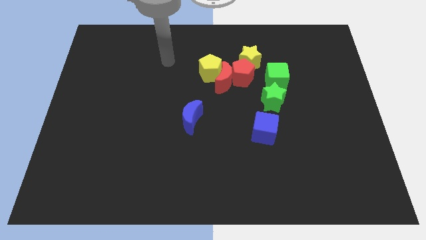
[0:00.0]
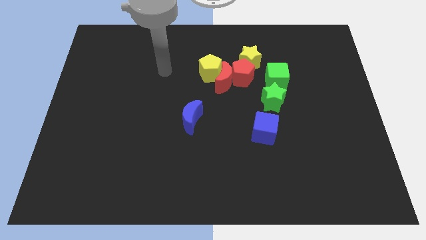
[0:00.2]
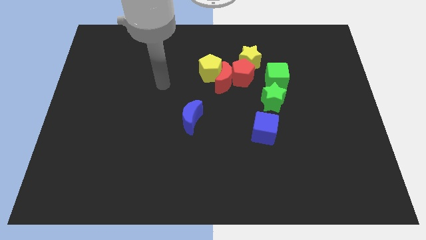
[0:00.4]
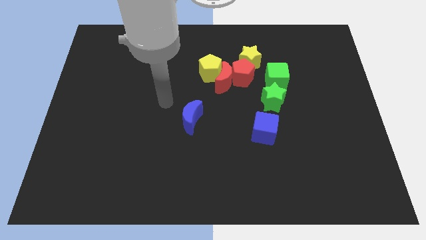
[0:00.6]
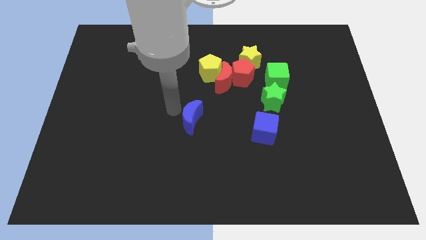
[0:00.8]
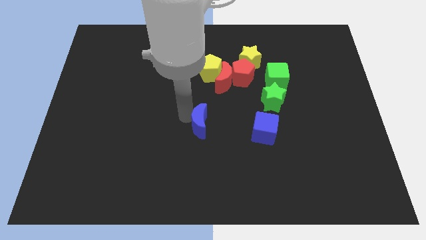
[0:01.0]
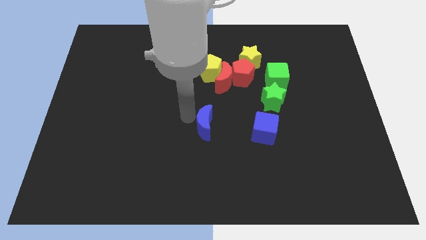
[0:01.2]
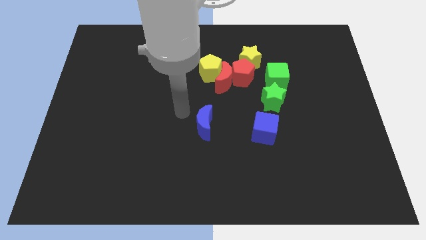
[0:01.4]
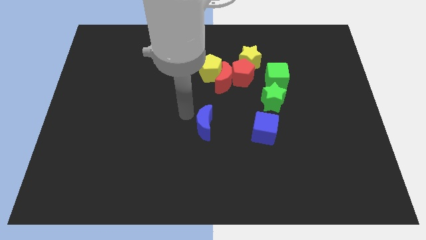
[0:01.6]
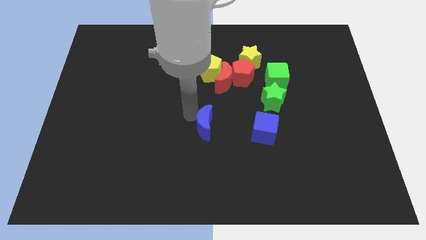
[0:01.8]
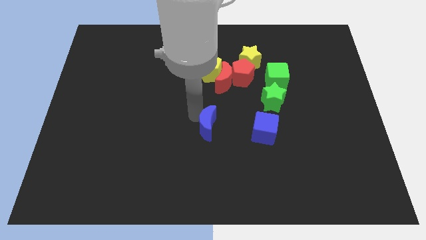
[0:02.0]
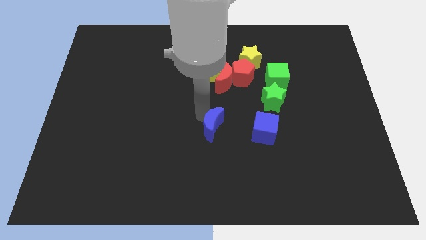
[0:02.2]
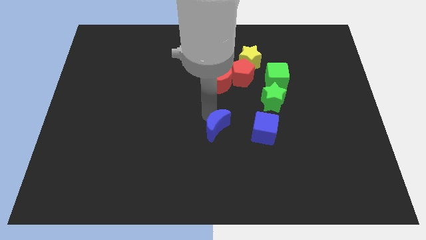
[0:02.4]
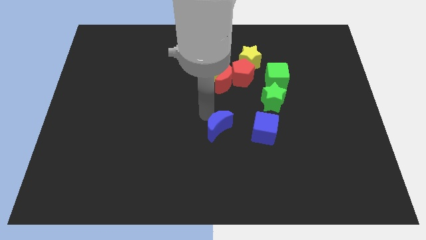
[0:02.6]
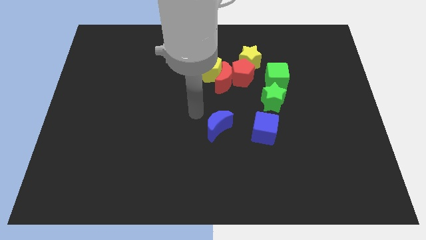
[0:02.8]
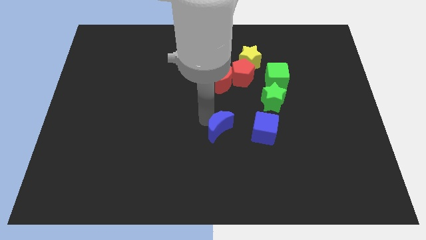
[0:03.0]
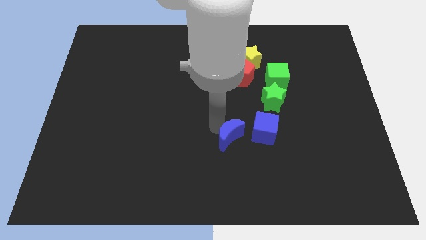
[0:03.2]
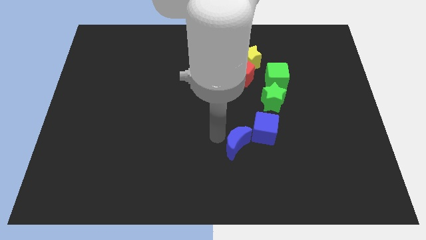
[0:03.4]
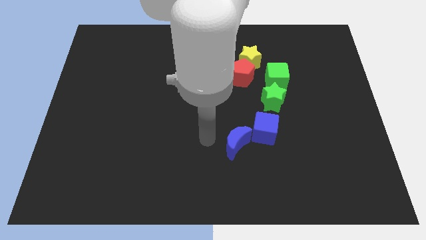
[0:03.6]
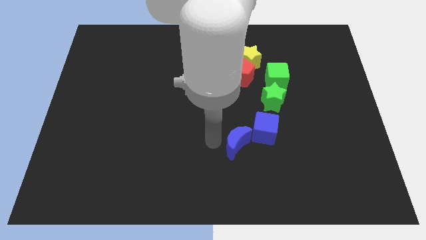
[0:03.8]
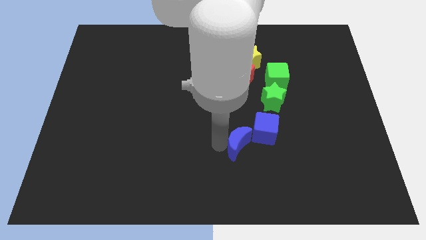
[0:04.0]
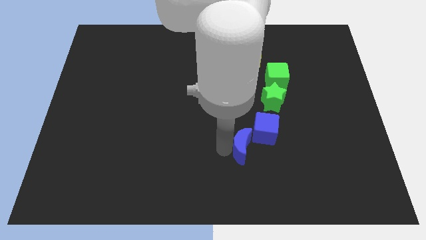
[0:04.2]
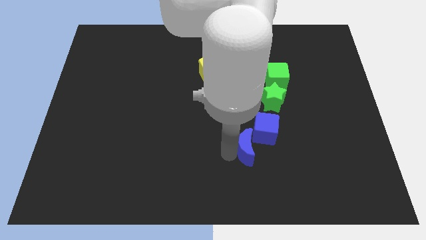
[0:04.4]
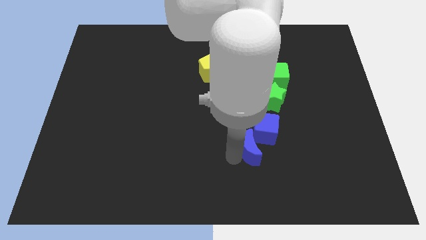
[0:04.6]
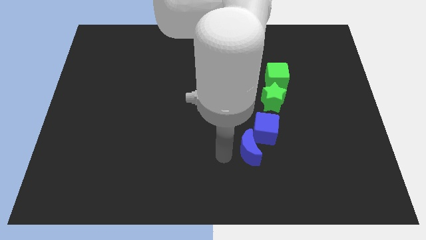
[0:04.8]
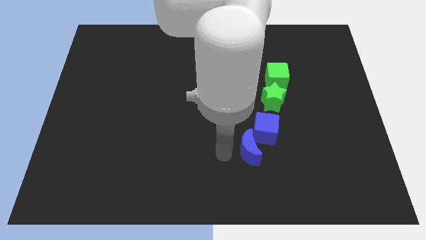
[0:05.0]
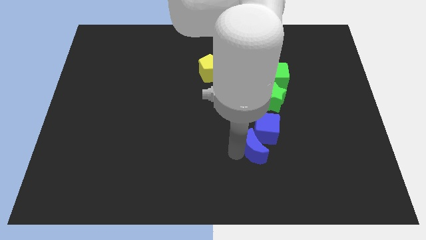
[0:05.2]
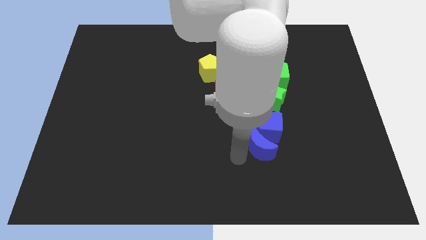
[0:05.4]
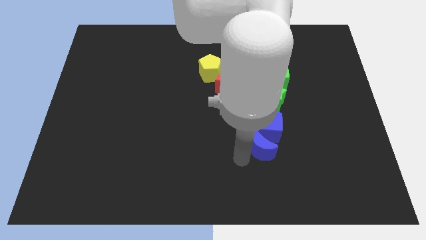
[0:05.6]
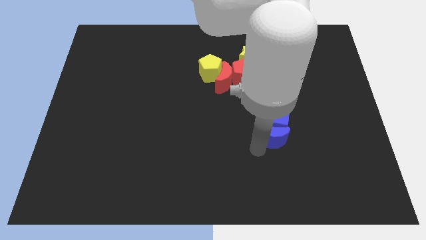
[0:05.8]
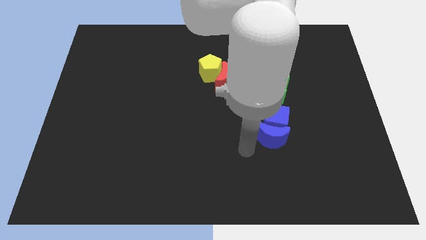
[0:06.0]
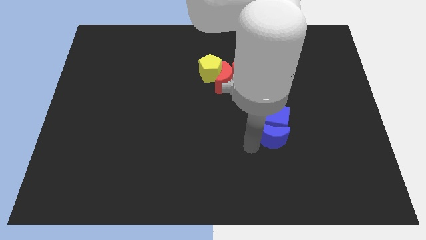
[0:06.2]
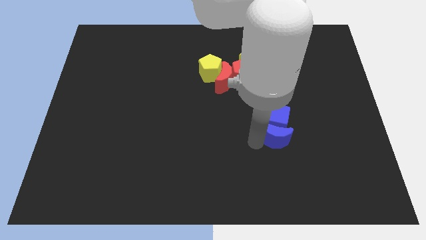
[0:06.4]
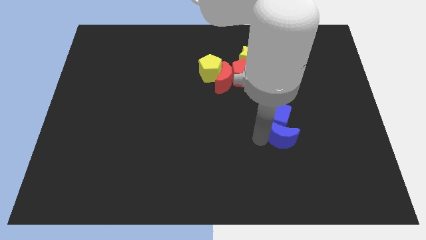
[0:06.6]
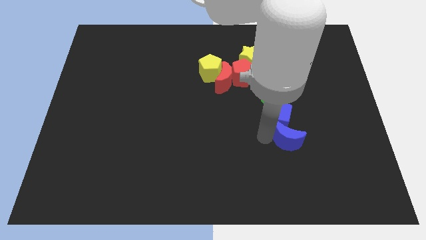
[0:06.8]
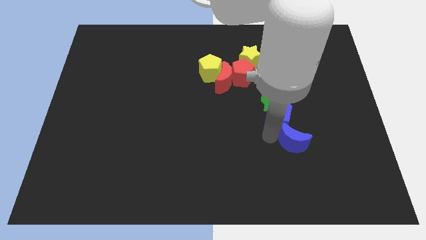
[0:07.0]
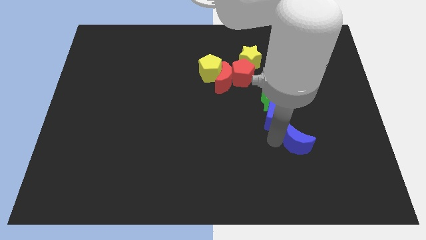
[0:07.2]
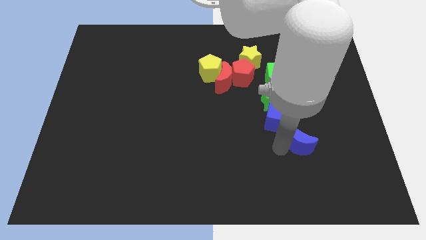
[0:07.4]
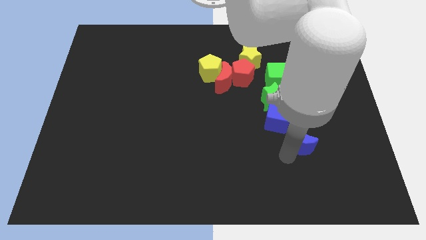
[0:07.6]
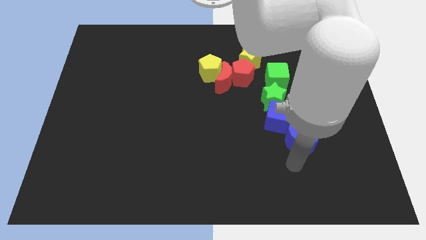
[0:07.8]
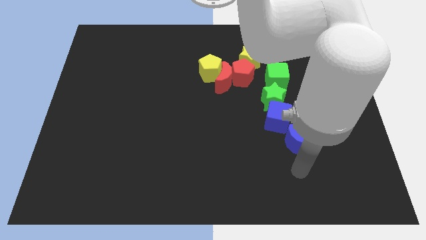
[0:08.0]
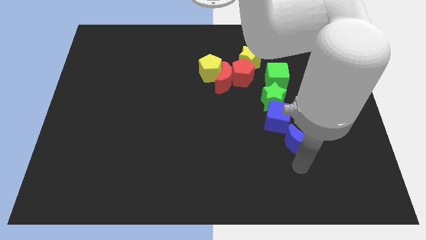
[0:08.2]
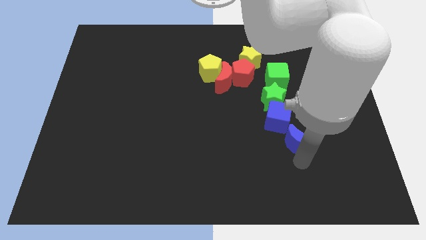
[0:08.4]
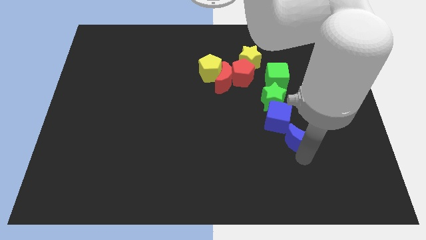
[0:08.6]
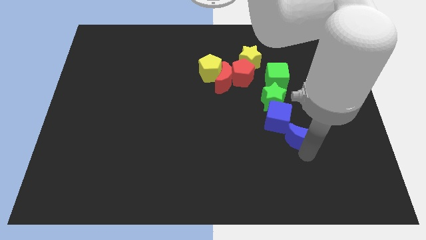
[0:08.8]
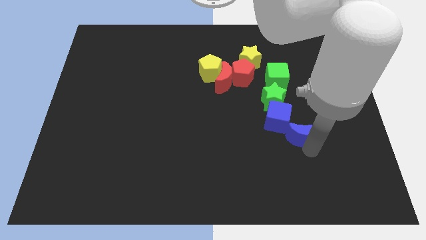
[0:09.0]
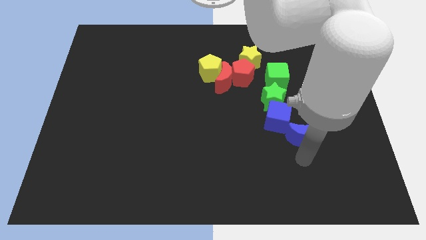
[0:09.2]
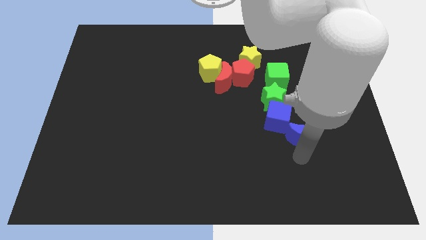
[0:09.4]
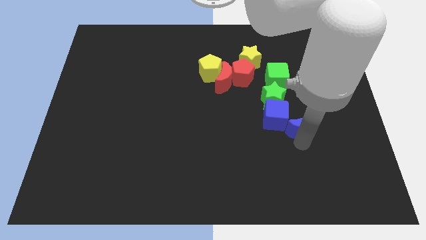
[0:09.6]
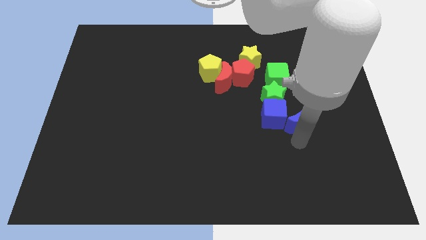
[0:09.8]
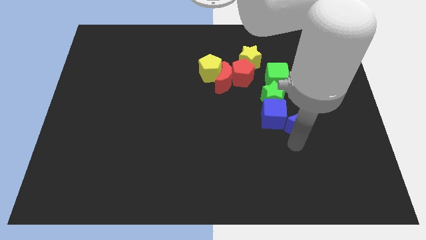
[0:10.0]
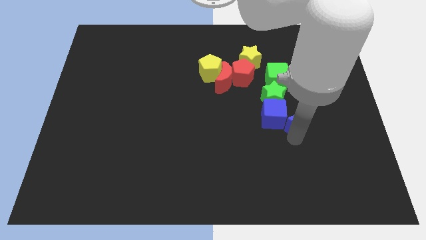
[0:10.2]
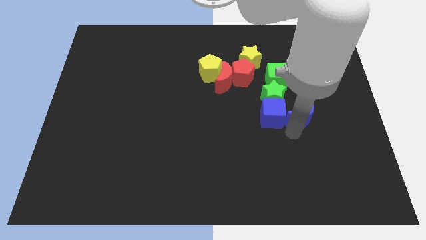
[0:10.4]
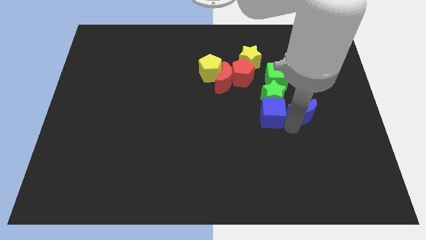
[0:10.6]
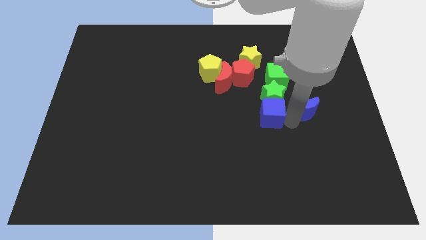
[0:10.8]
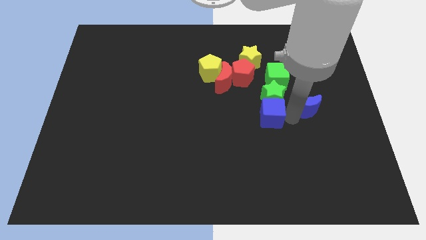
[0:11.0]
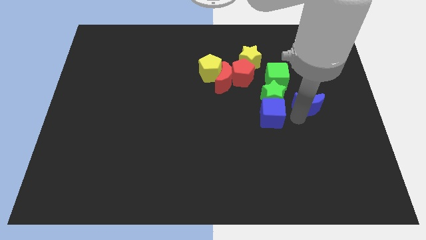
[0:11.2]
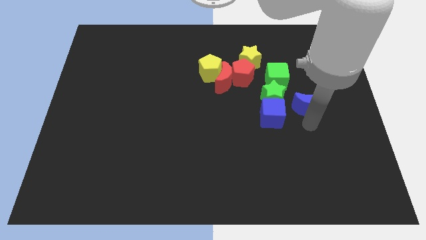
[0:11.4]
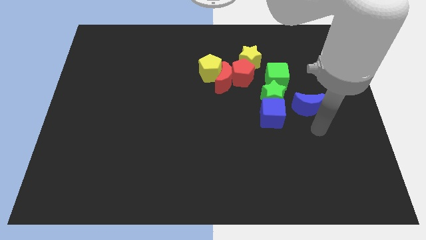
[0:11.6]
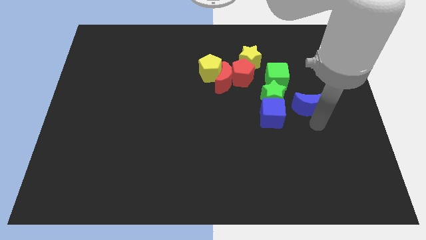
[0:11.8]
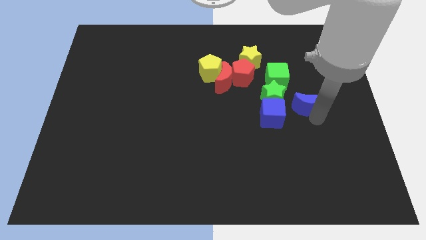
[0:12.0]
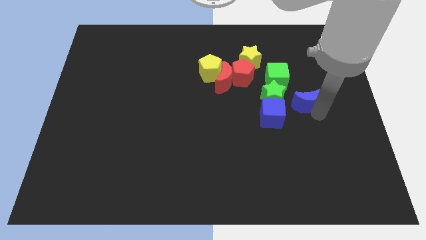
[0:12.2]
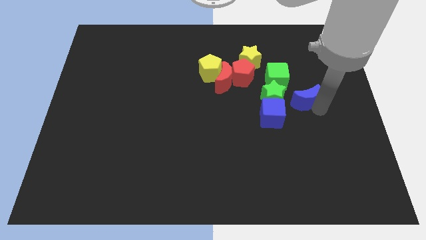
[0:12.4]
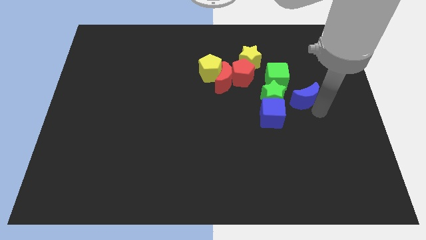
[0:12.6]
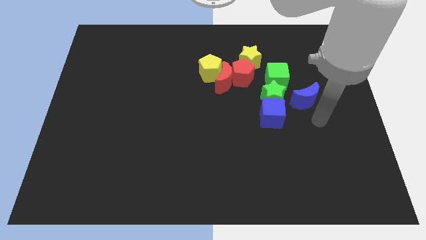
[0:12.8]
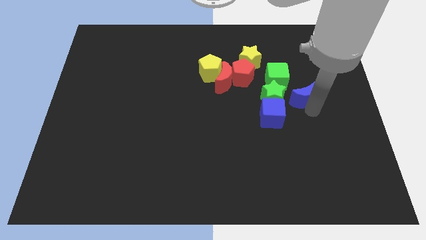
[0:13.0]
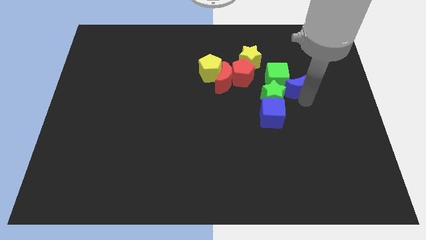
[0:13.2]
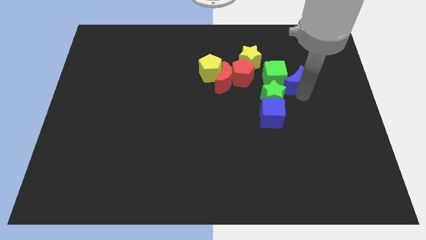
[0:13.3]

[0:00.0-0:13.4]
move the blue moon just right of the red pentagon
